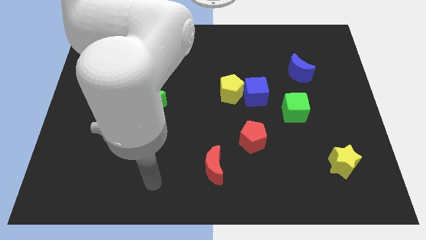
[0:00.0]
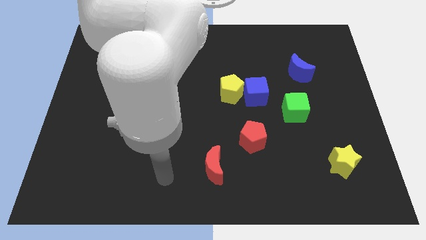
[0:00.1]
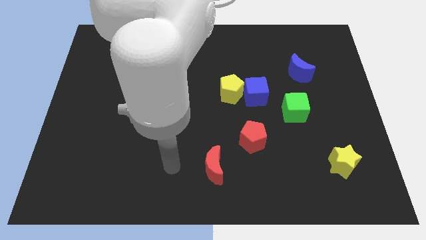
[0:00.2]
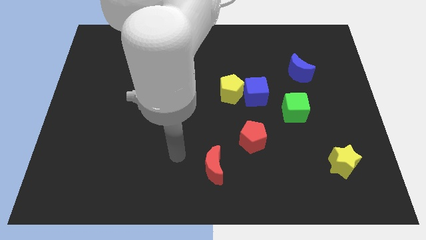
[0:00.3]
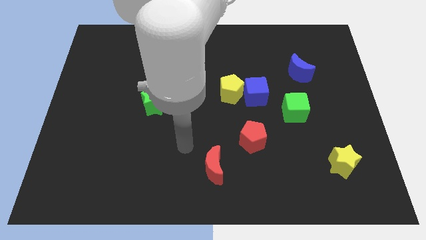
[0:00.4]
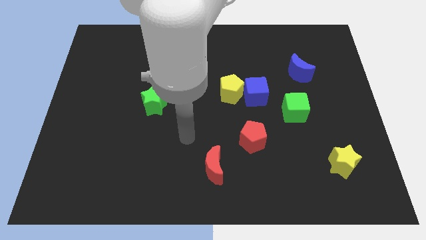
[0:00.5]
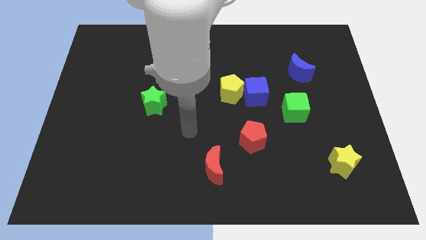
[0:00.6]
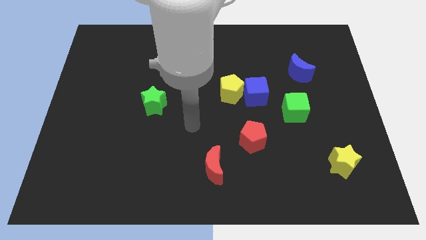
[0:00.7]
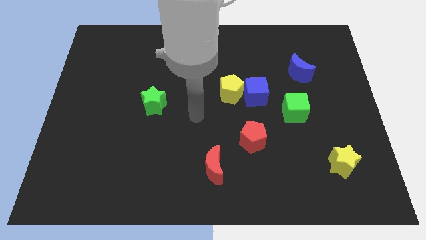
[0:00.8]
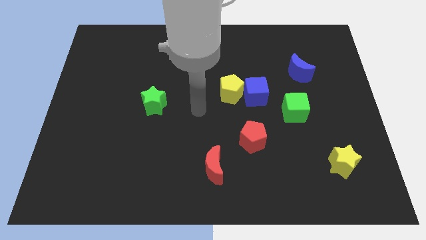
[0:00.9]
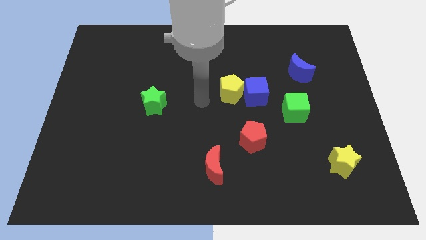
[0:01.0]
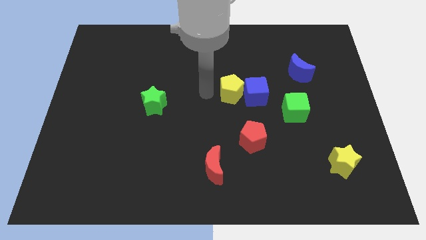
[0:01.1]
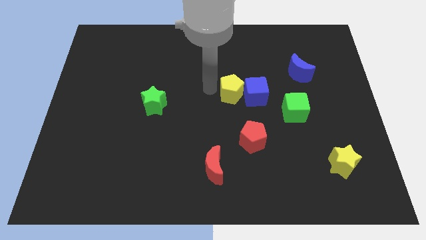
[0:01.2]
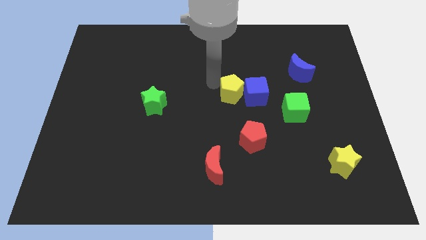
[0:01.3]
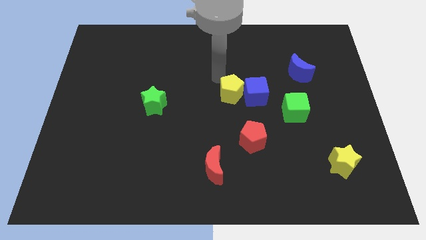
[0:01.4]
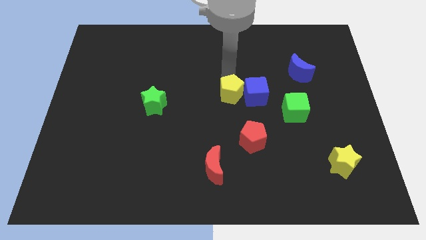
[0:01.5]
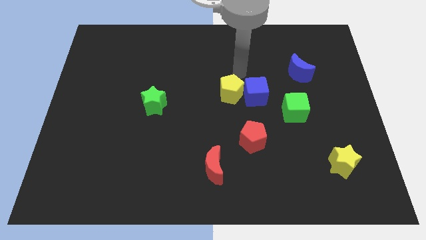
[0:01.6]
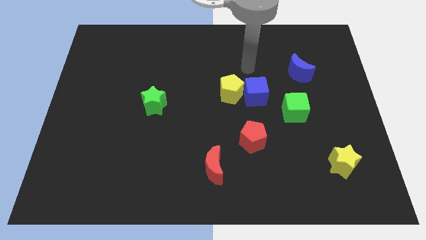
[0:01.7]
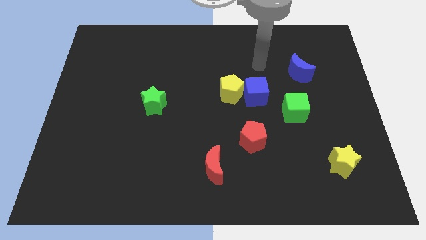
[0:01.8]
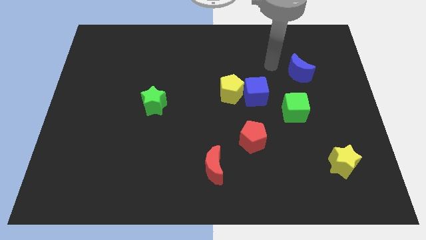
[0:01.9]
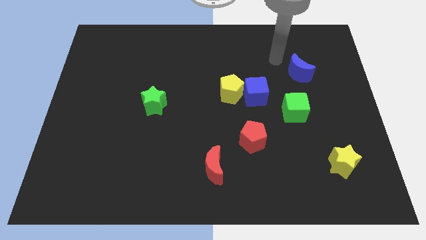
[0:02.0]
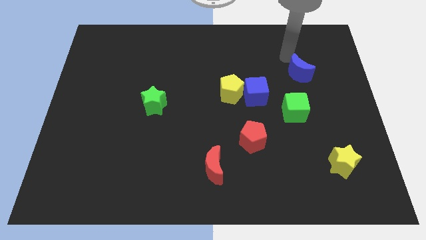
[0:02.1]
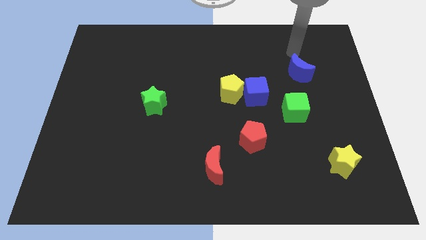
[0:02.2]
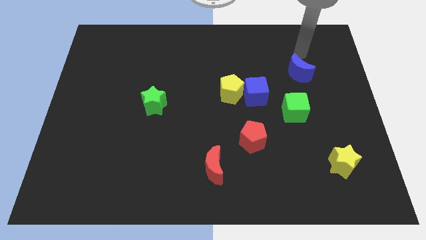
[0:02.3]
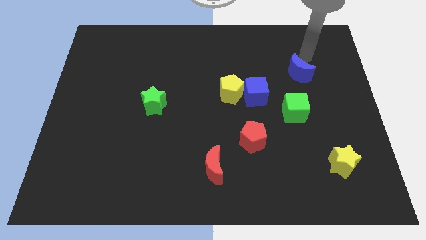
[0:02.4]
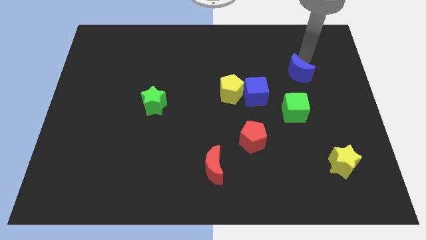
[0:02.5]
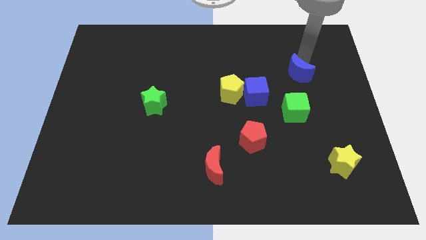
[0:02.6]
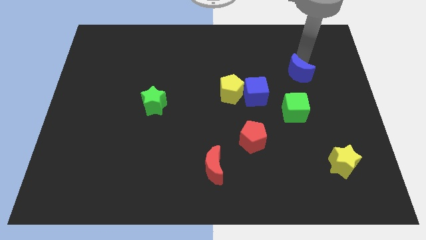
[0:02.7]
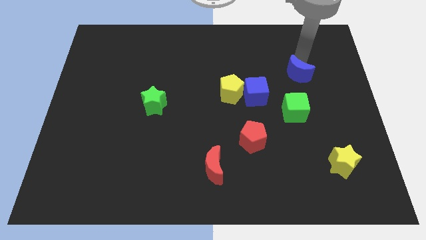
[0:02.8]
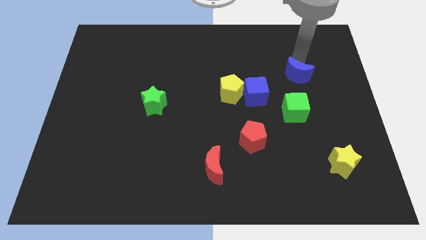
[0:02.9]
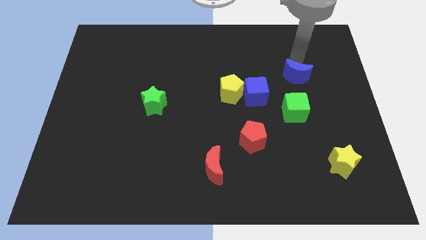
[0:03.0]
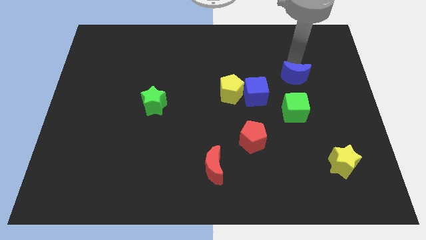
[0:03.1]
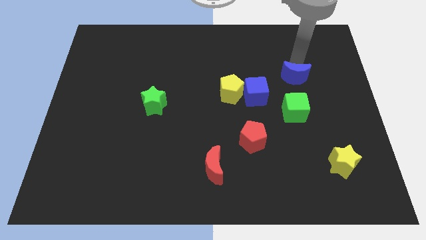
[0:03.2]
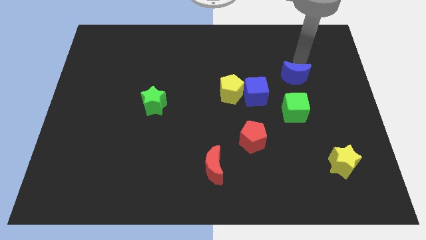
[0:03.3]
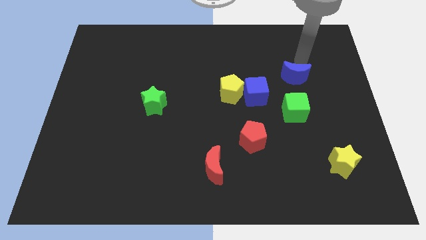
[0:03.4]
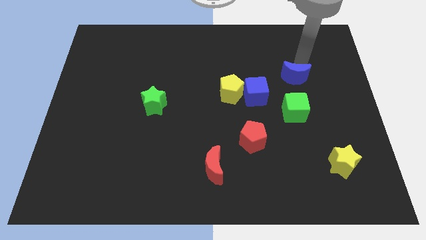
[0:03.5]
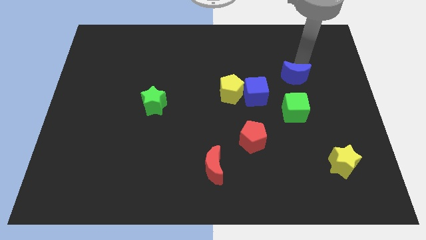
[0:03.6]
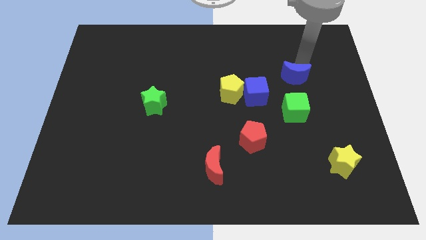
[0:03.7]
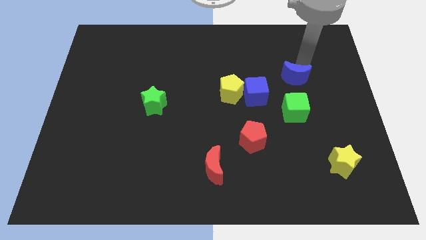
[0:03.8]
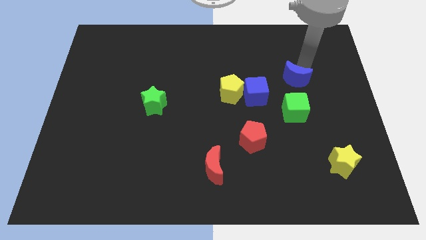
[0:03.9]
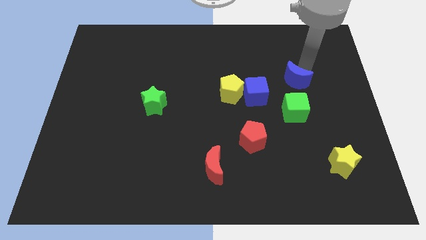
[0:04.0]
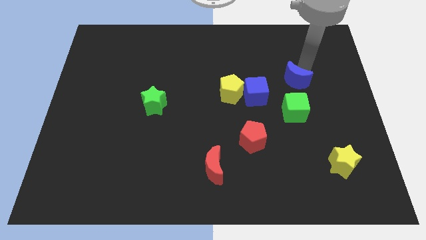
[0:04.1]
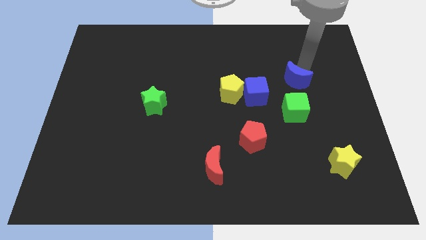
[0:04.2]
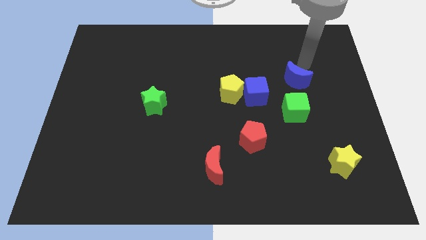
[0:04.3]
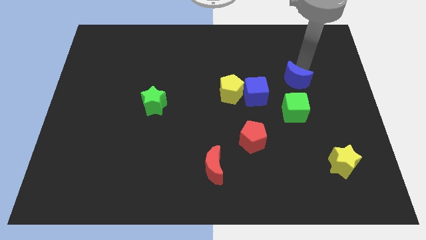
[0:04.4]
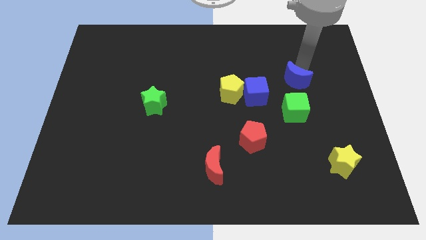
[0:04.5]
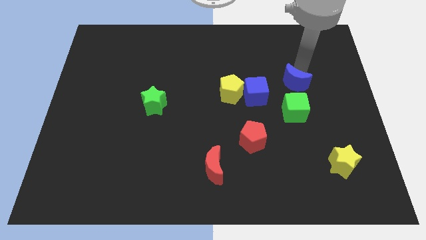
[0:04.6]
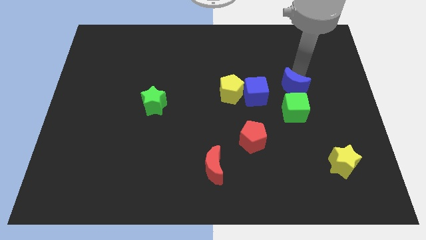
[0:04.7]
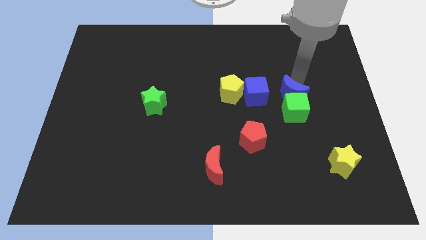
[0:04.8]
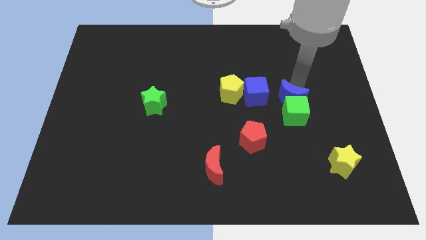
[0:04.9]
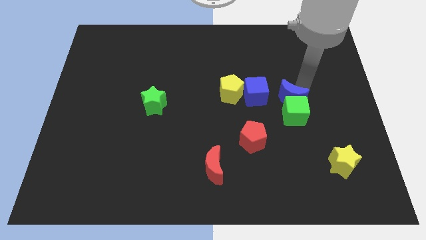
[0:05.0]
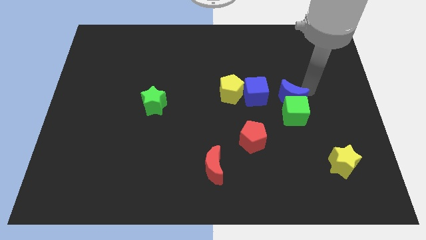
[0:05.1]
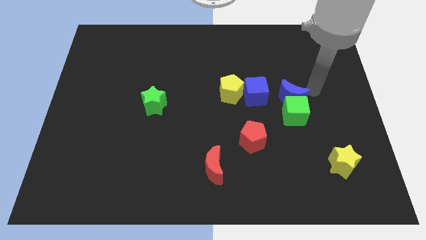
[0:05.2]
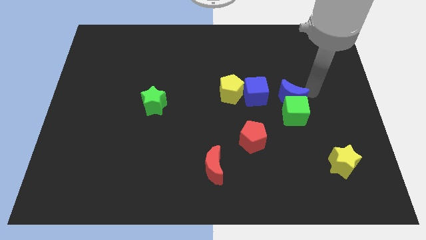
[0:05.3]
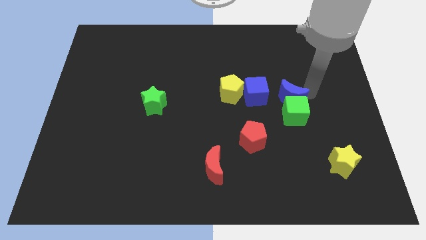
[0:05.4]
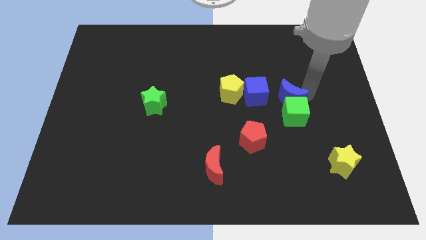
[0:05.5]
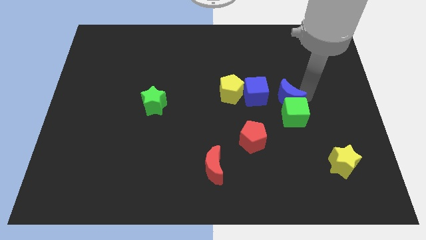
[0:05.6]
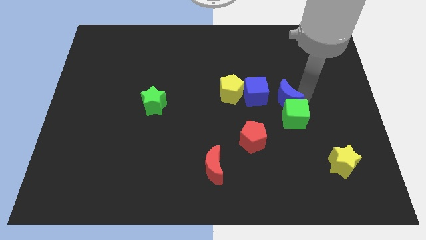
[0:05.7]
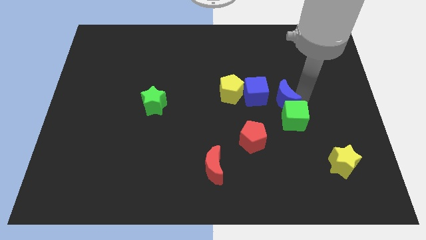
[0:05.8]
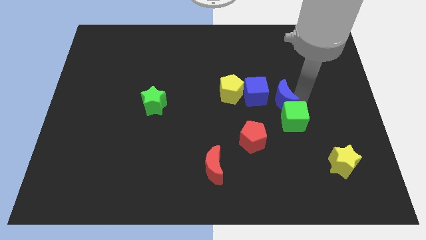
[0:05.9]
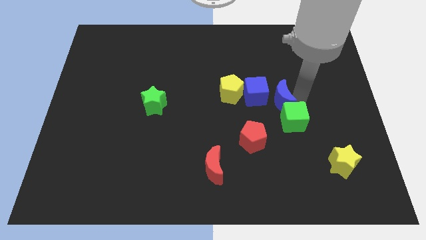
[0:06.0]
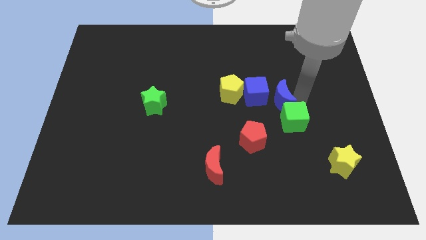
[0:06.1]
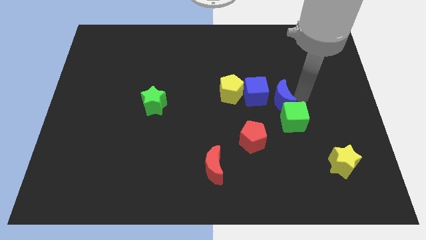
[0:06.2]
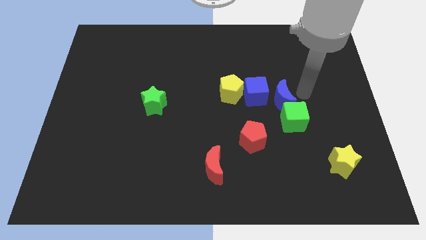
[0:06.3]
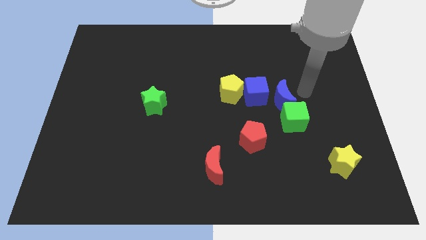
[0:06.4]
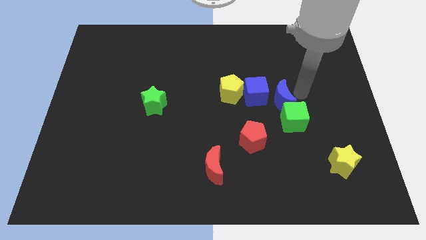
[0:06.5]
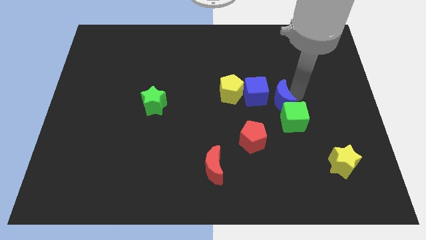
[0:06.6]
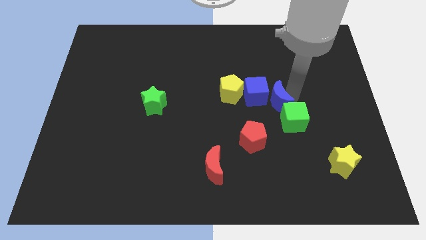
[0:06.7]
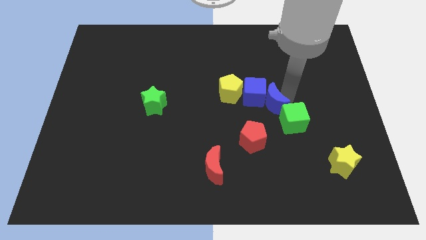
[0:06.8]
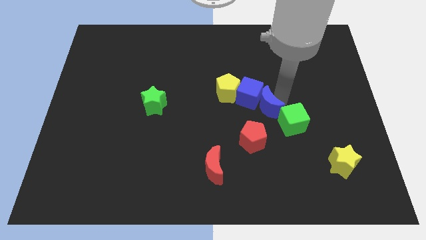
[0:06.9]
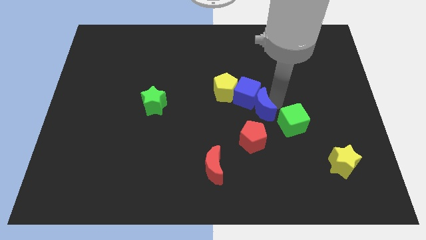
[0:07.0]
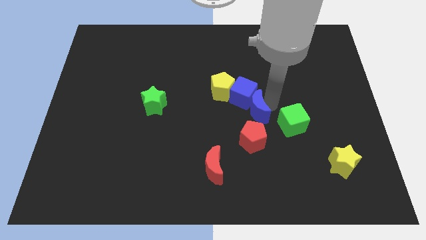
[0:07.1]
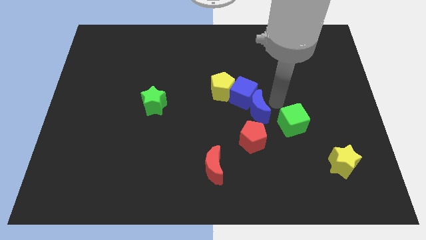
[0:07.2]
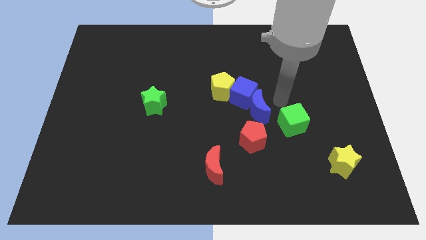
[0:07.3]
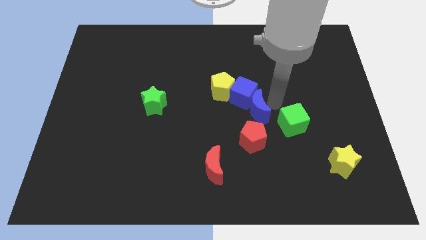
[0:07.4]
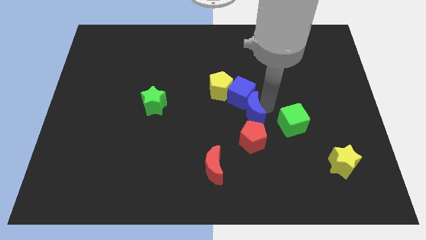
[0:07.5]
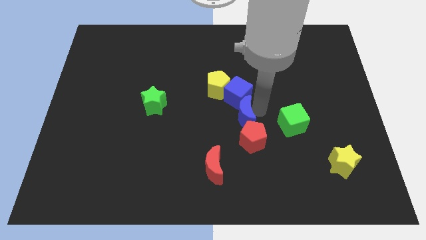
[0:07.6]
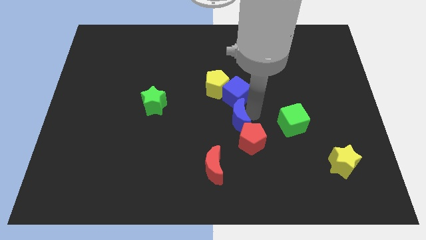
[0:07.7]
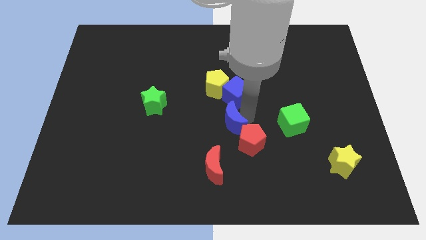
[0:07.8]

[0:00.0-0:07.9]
push the blue moon to the bottom of the yellow pentagon
